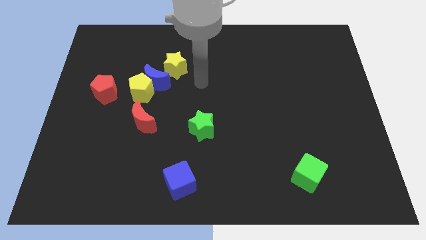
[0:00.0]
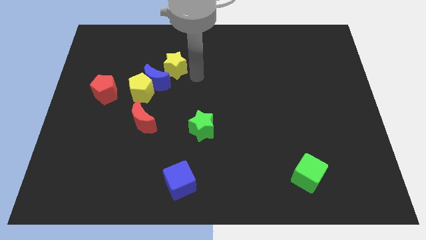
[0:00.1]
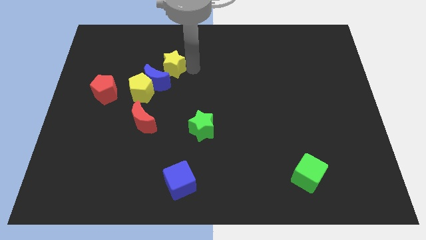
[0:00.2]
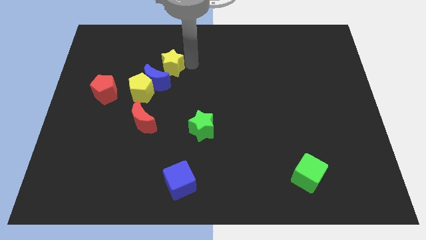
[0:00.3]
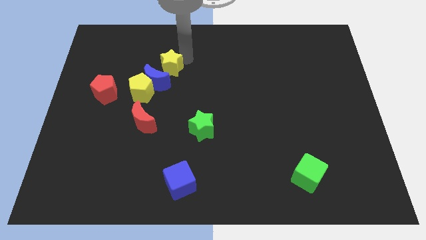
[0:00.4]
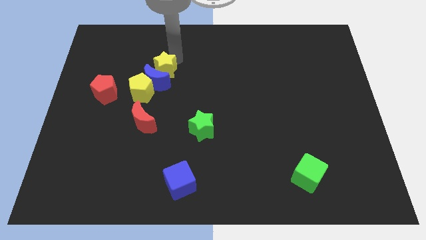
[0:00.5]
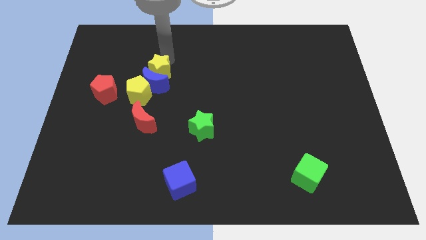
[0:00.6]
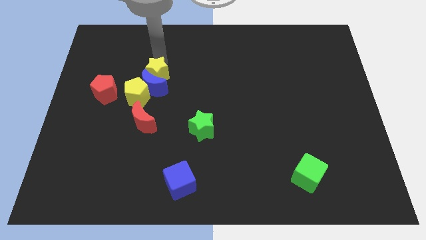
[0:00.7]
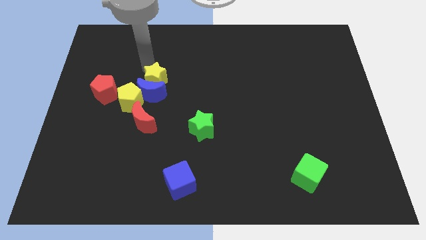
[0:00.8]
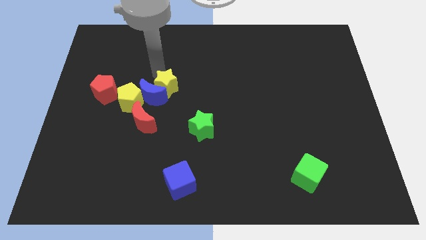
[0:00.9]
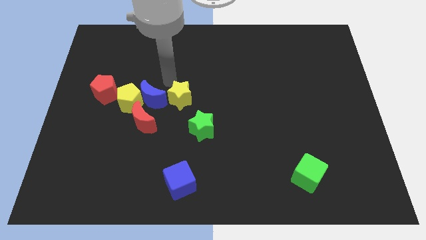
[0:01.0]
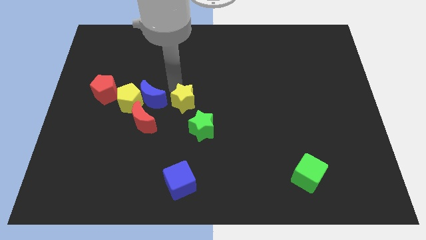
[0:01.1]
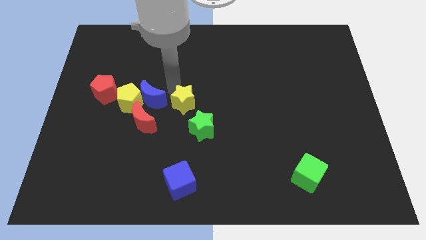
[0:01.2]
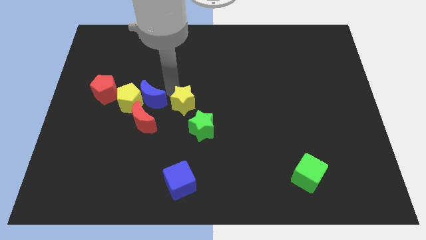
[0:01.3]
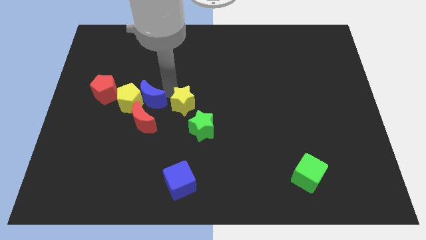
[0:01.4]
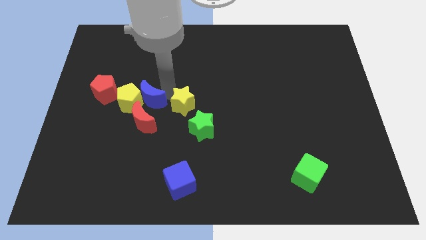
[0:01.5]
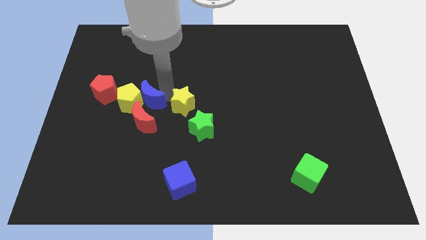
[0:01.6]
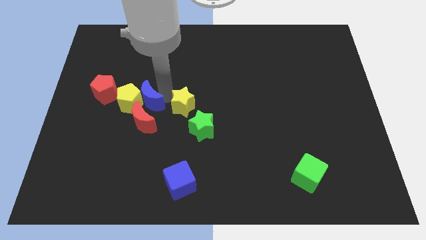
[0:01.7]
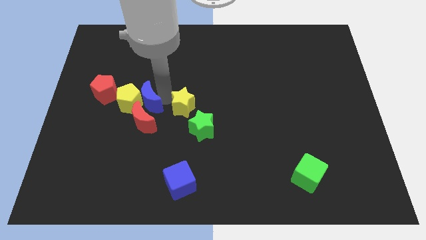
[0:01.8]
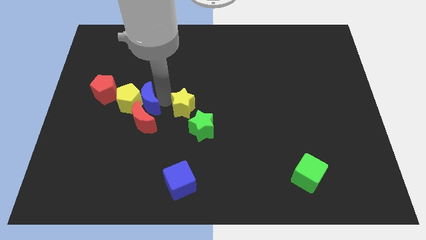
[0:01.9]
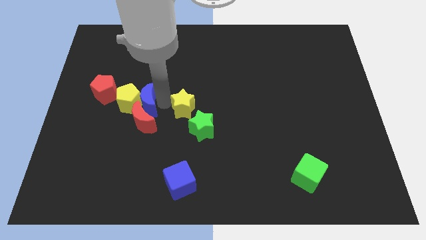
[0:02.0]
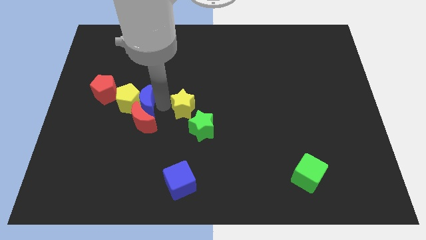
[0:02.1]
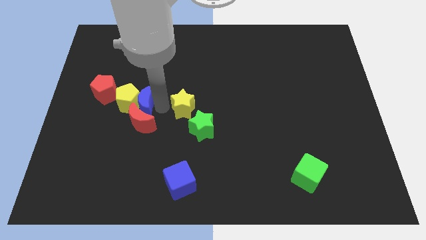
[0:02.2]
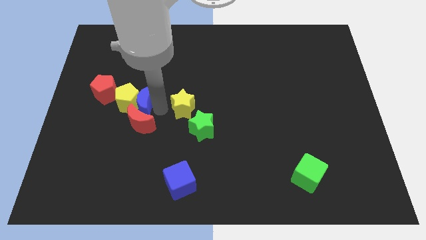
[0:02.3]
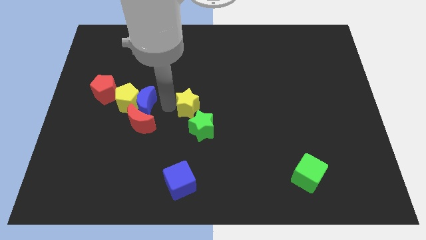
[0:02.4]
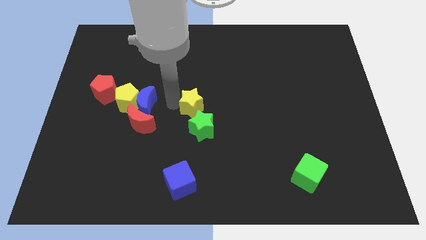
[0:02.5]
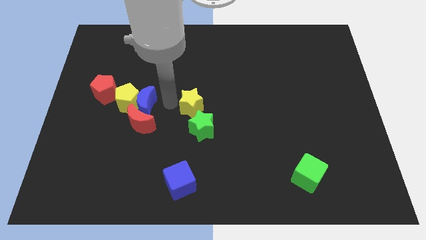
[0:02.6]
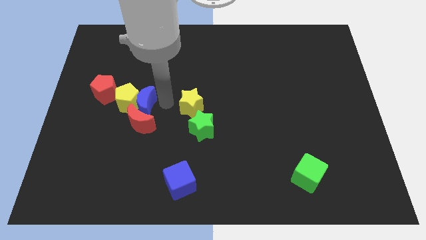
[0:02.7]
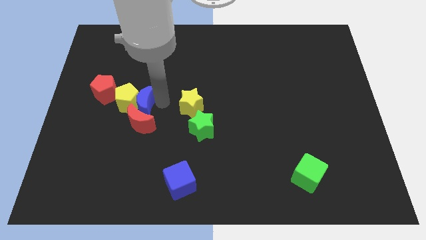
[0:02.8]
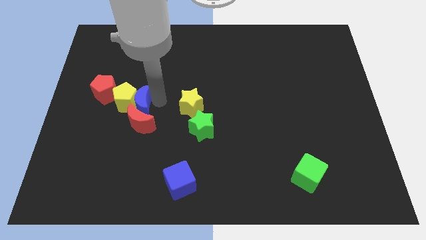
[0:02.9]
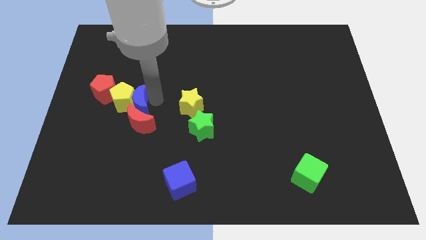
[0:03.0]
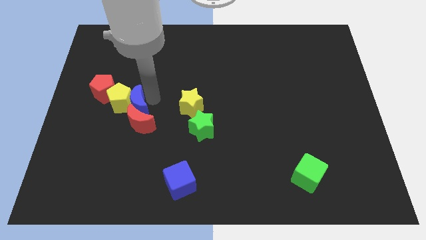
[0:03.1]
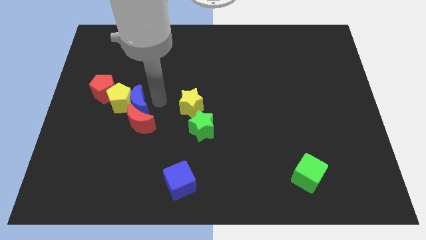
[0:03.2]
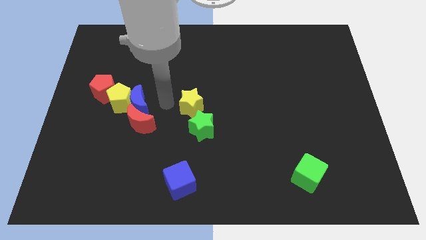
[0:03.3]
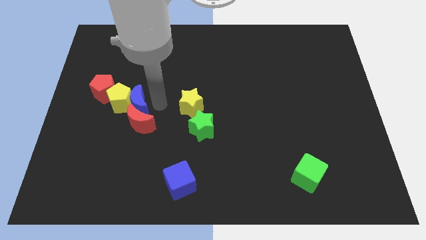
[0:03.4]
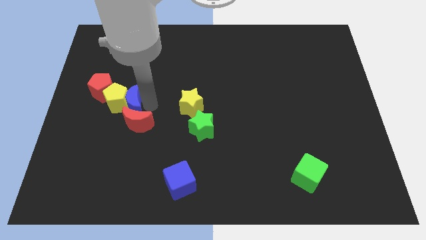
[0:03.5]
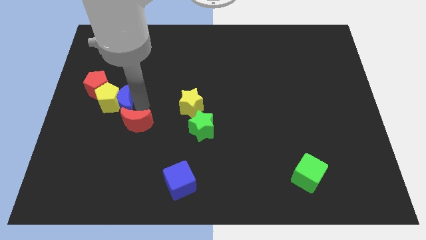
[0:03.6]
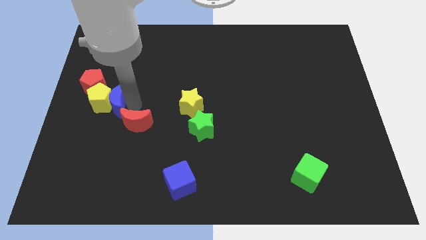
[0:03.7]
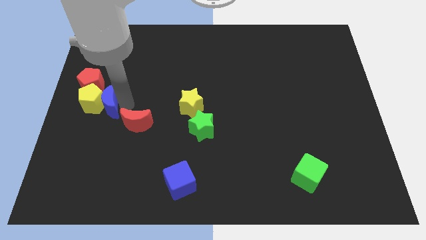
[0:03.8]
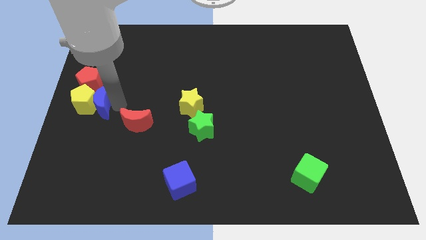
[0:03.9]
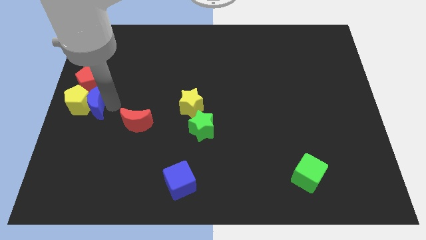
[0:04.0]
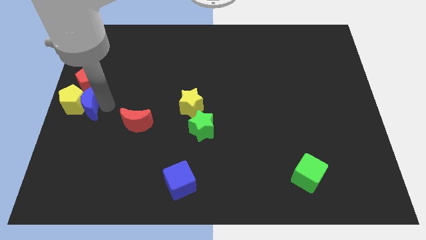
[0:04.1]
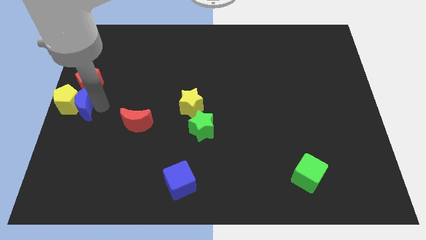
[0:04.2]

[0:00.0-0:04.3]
separate the blue moon from the yellow pentagon and yellow star

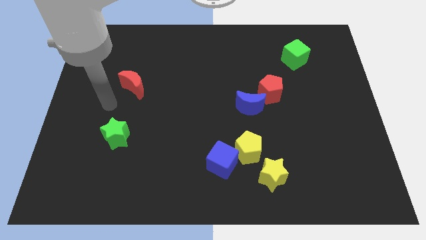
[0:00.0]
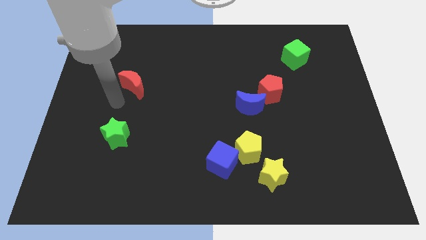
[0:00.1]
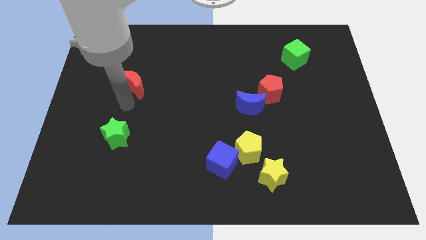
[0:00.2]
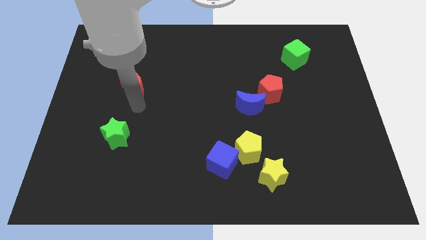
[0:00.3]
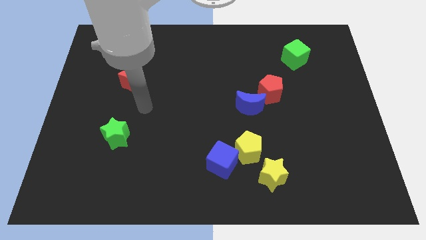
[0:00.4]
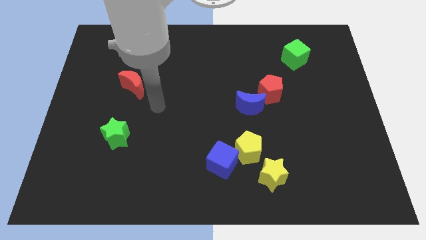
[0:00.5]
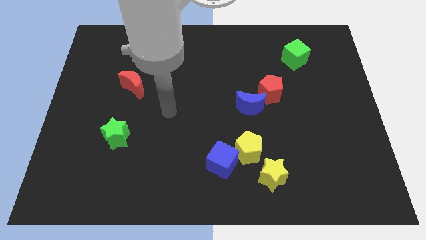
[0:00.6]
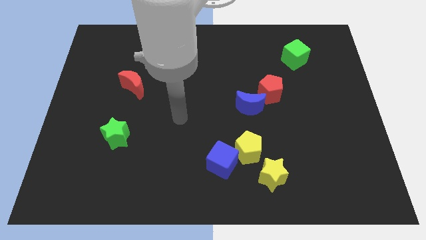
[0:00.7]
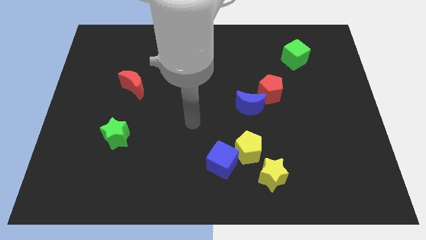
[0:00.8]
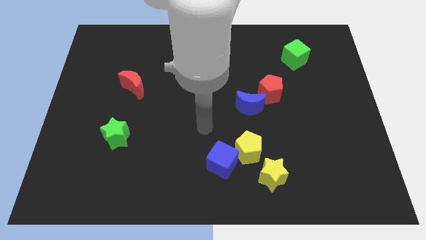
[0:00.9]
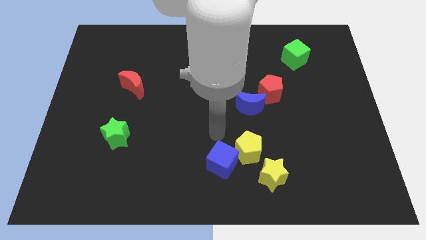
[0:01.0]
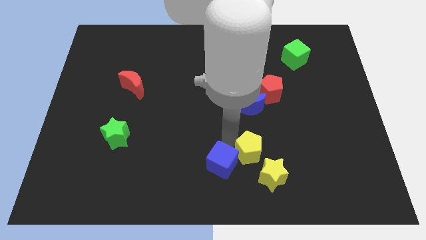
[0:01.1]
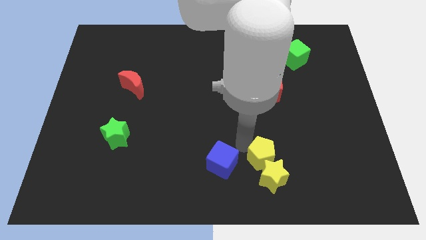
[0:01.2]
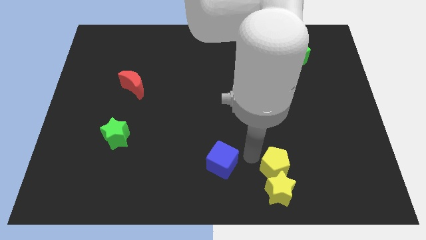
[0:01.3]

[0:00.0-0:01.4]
move the blue cube away from the yellow pentagon

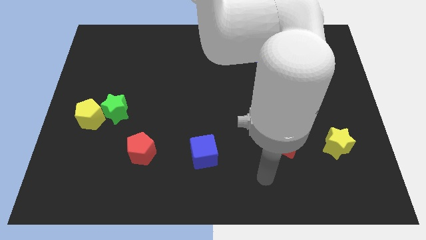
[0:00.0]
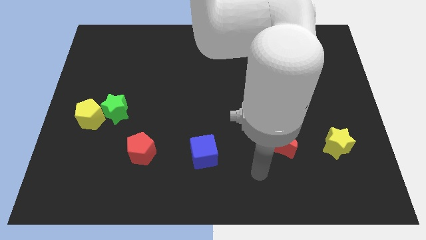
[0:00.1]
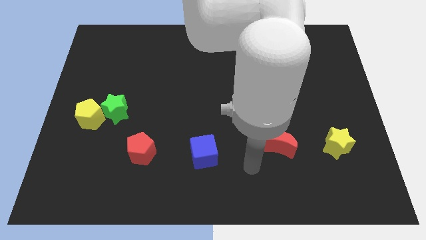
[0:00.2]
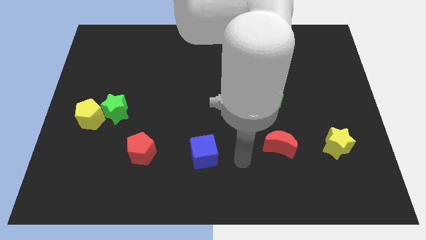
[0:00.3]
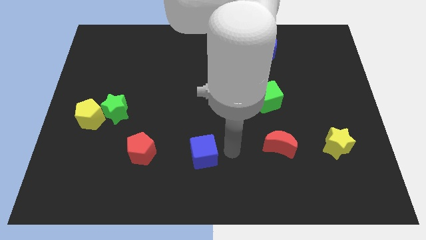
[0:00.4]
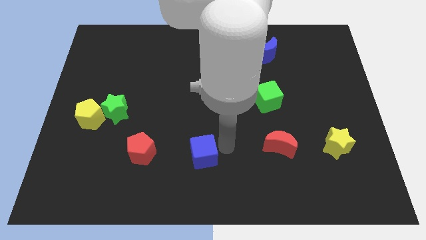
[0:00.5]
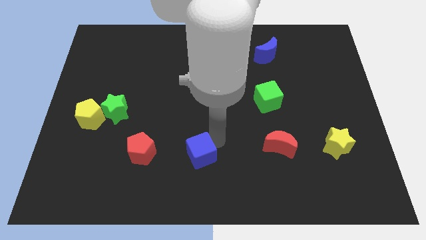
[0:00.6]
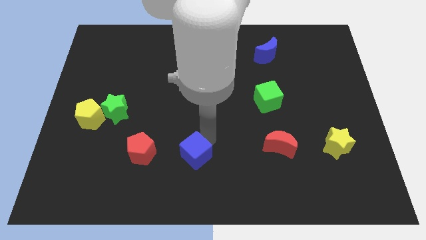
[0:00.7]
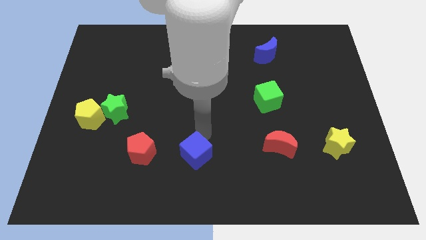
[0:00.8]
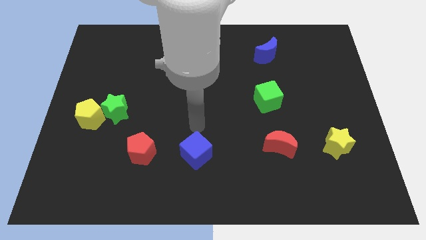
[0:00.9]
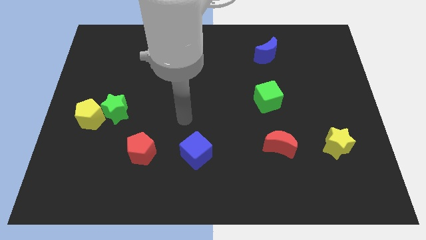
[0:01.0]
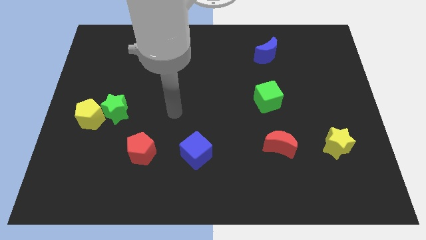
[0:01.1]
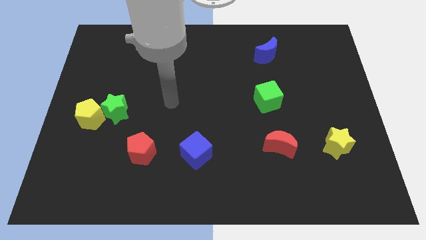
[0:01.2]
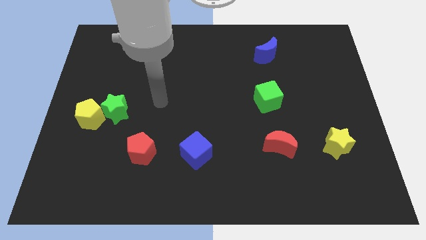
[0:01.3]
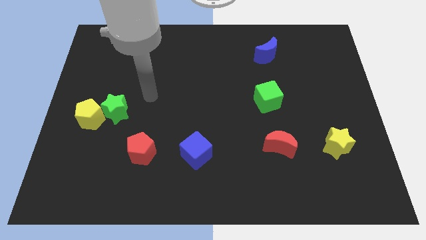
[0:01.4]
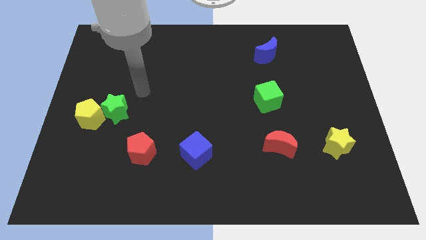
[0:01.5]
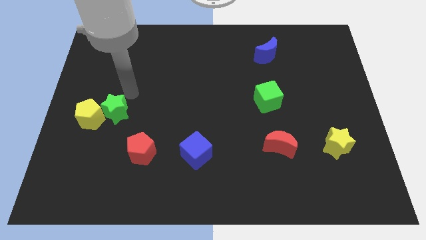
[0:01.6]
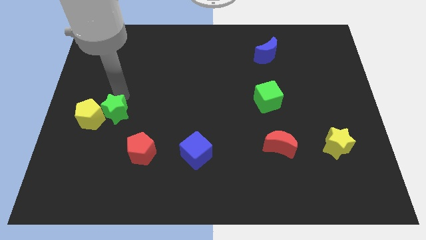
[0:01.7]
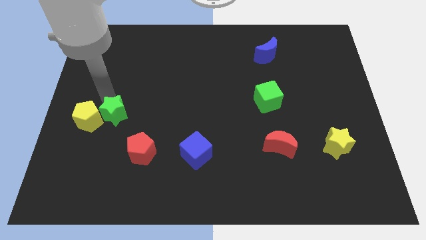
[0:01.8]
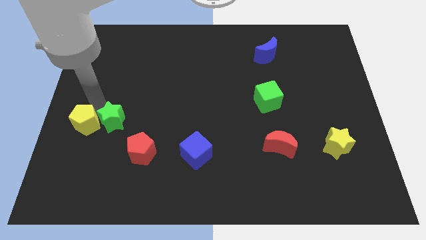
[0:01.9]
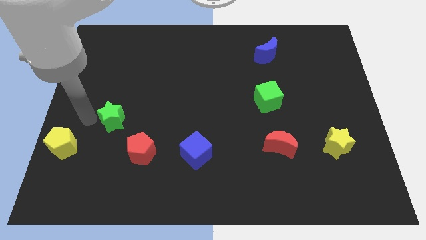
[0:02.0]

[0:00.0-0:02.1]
pull the green star apart from the yellow pentagon

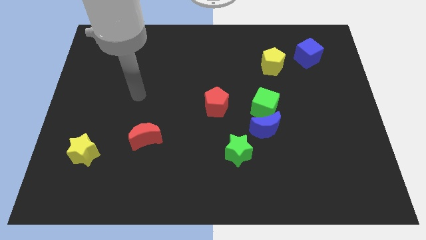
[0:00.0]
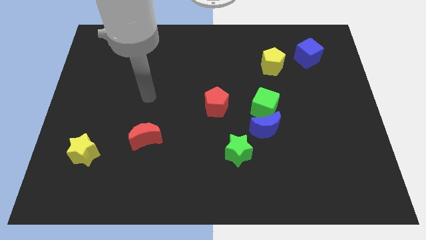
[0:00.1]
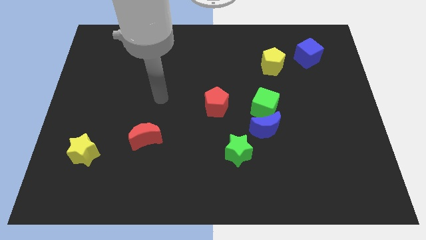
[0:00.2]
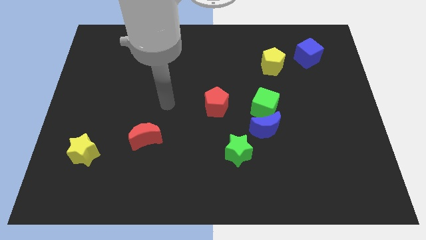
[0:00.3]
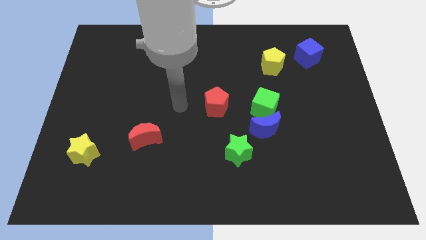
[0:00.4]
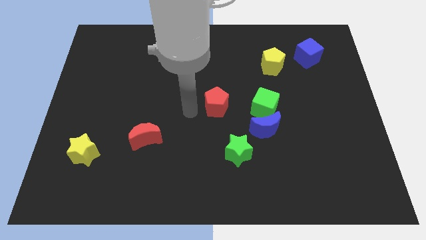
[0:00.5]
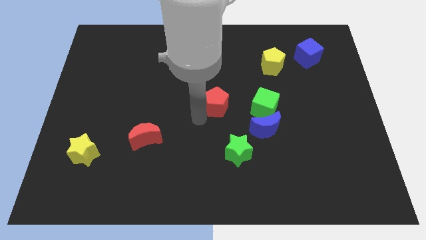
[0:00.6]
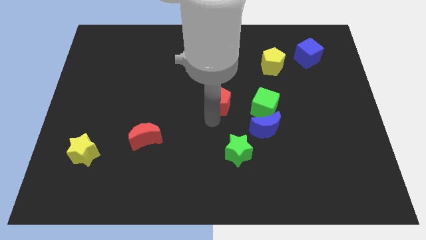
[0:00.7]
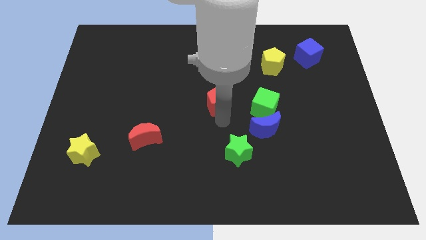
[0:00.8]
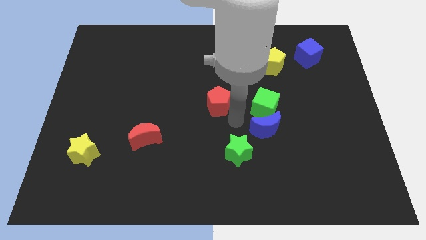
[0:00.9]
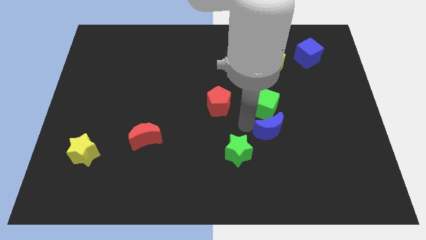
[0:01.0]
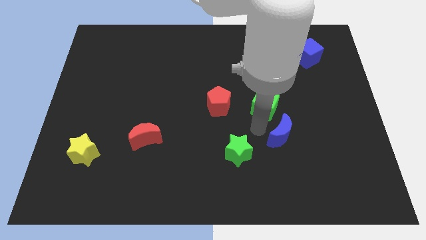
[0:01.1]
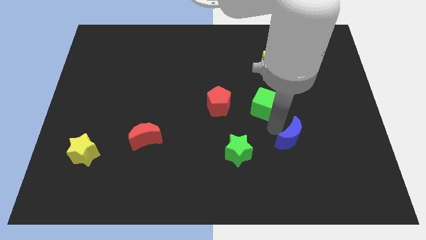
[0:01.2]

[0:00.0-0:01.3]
move the green cube away from the blue moon
